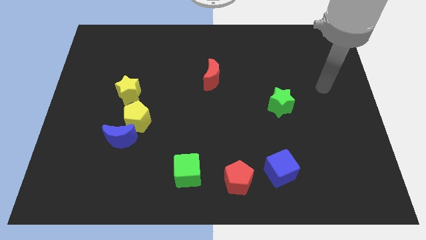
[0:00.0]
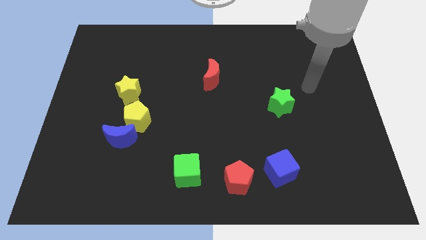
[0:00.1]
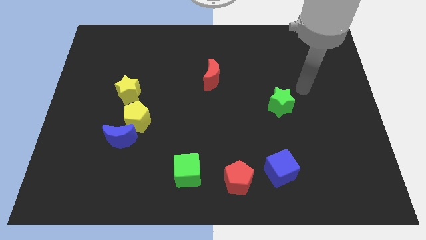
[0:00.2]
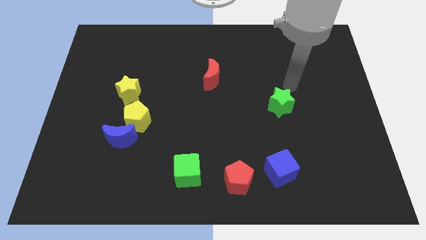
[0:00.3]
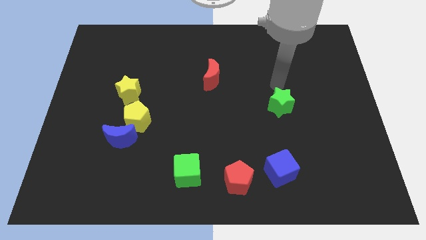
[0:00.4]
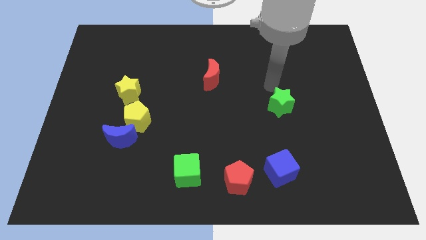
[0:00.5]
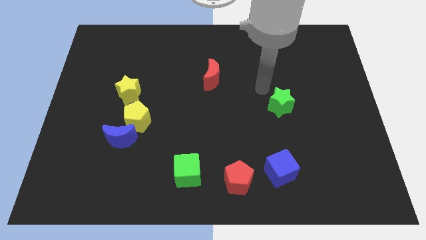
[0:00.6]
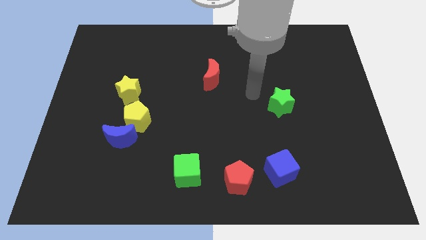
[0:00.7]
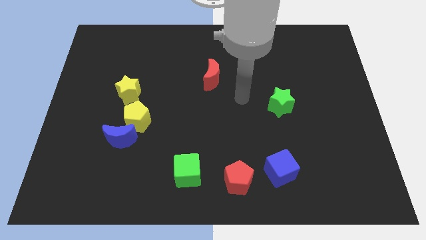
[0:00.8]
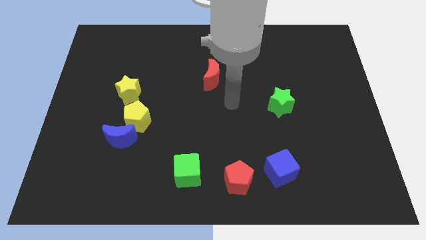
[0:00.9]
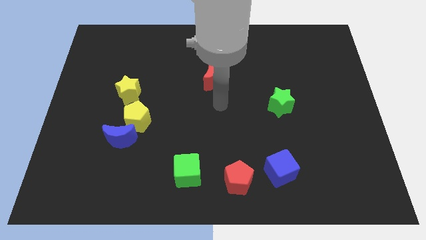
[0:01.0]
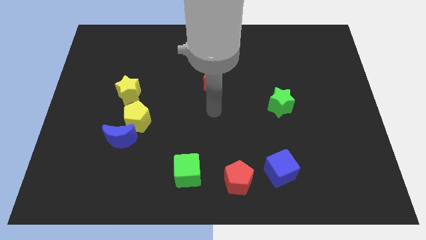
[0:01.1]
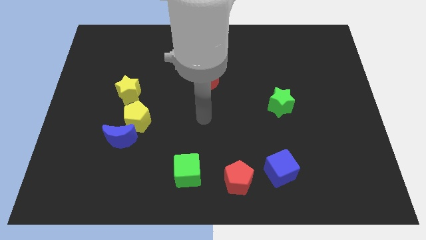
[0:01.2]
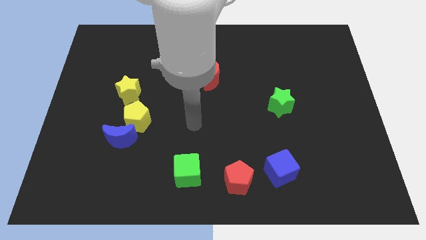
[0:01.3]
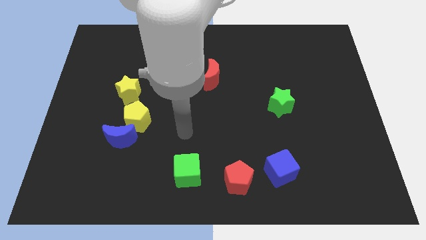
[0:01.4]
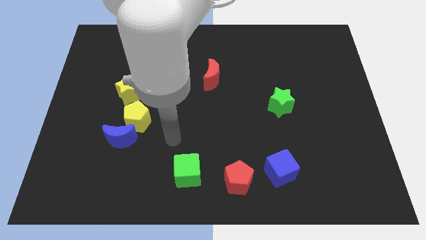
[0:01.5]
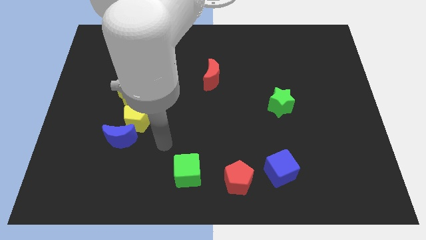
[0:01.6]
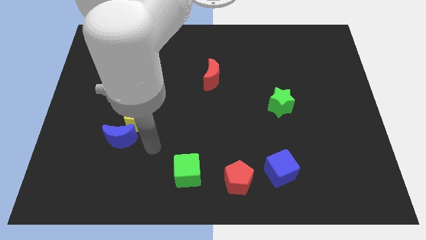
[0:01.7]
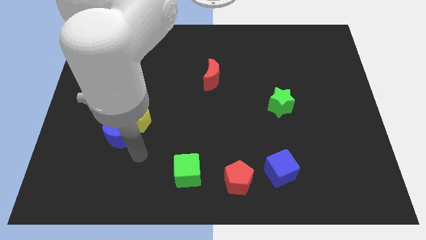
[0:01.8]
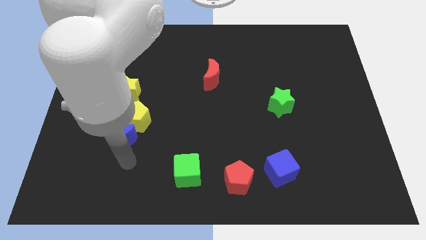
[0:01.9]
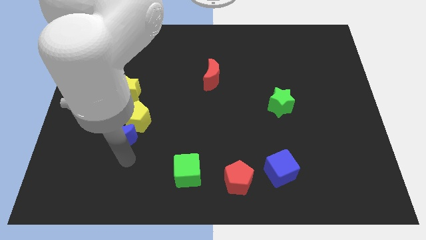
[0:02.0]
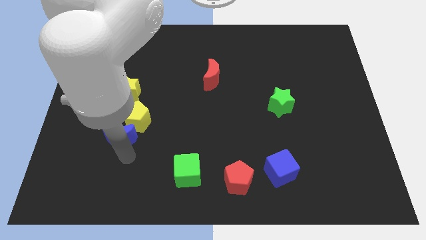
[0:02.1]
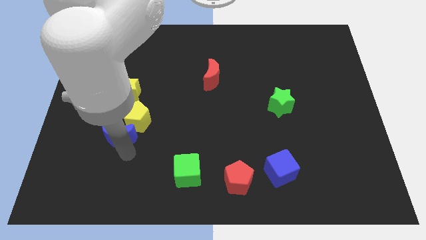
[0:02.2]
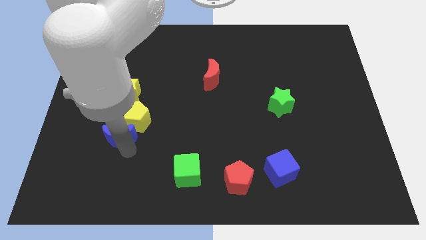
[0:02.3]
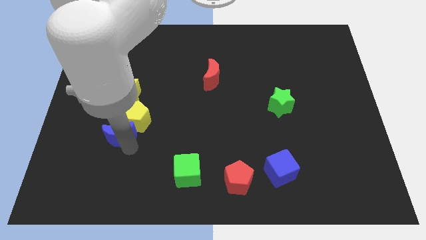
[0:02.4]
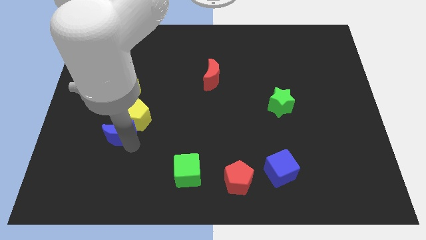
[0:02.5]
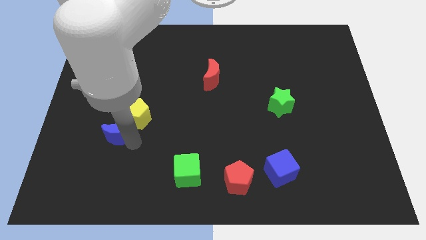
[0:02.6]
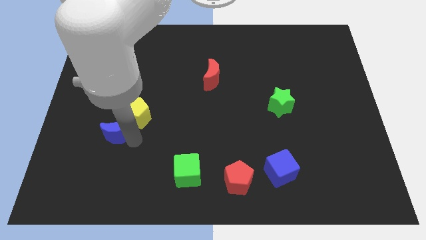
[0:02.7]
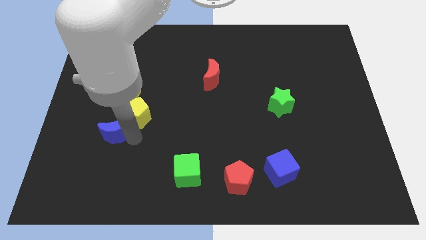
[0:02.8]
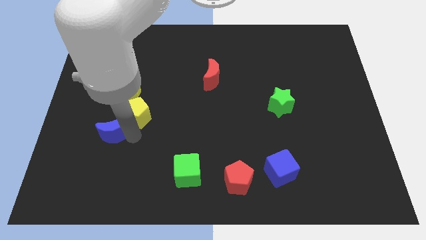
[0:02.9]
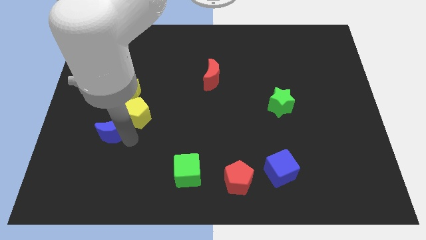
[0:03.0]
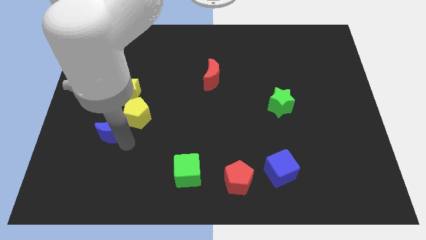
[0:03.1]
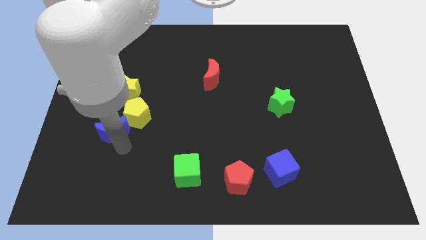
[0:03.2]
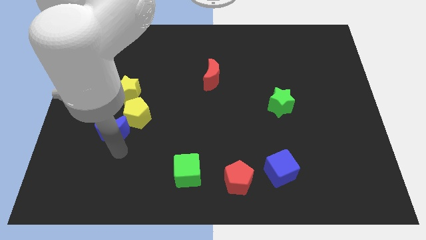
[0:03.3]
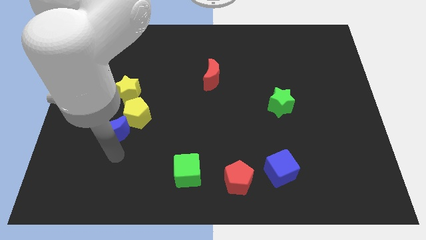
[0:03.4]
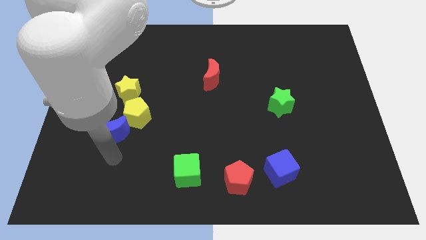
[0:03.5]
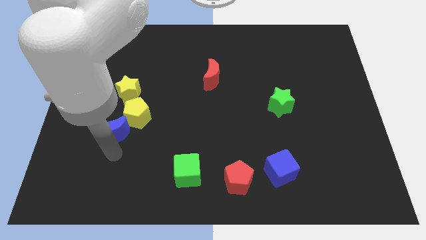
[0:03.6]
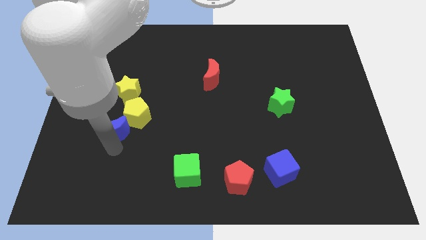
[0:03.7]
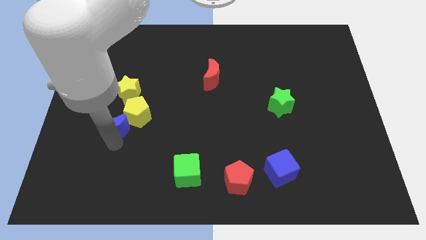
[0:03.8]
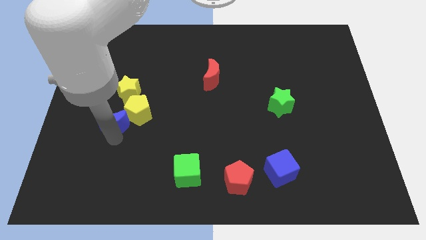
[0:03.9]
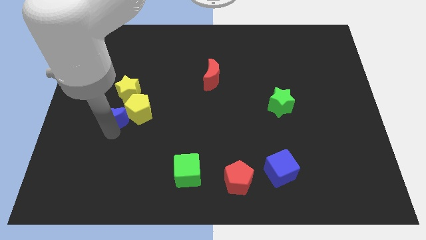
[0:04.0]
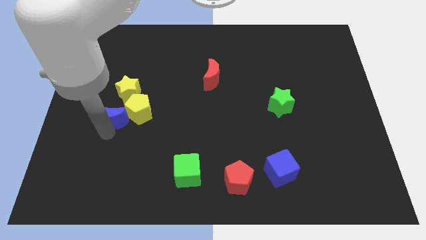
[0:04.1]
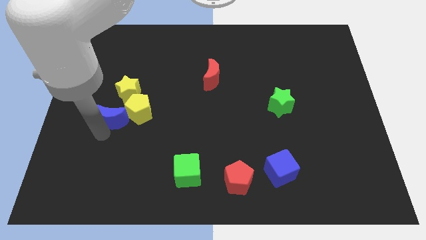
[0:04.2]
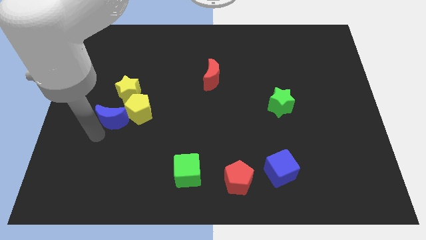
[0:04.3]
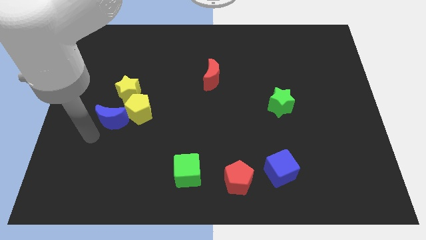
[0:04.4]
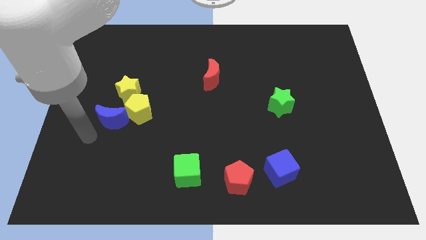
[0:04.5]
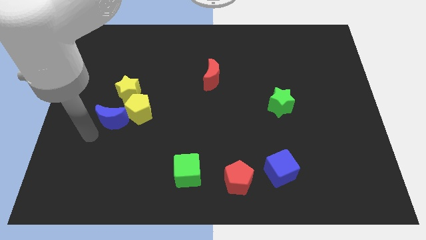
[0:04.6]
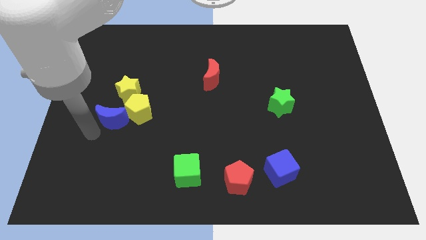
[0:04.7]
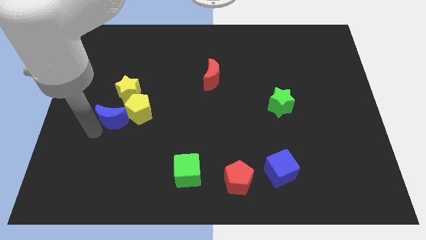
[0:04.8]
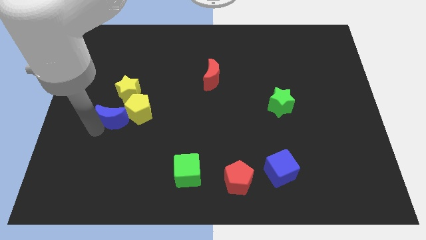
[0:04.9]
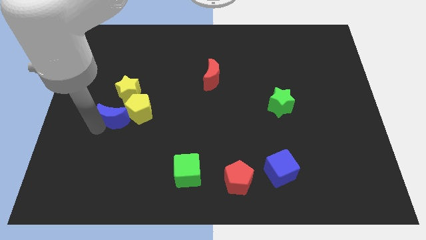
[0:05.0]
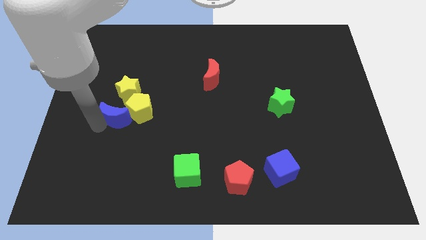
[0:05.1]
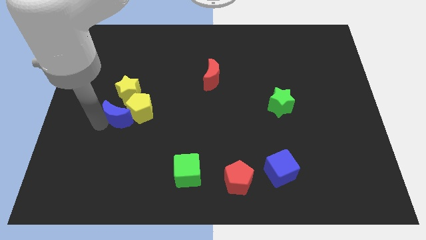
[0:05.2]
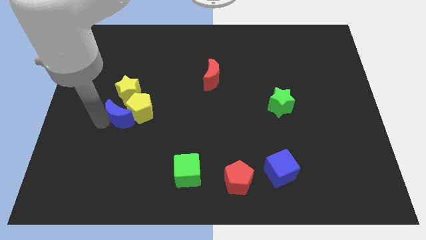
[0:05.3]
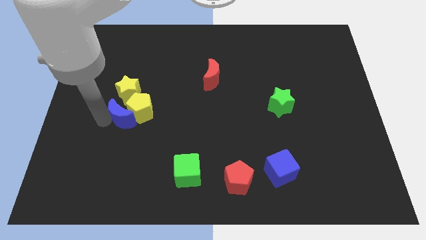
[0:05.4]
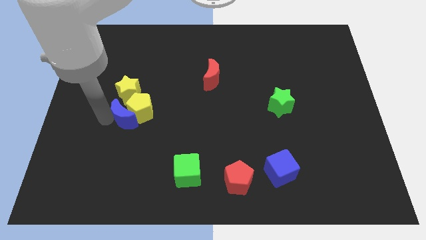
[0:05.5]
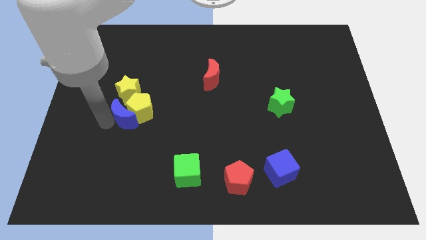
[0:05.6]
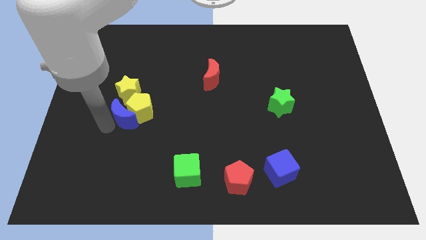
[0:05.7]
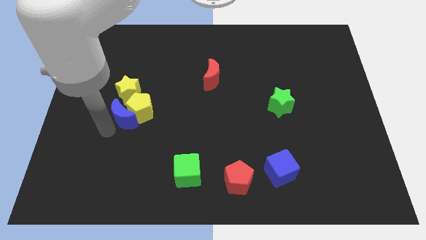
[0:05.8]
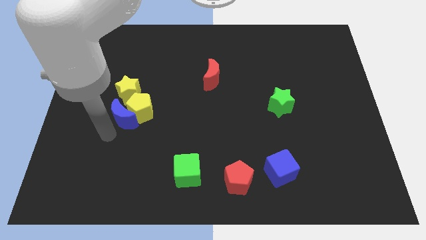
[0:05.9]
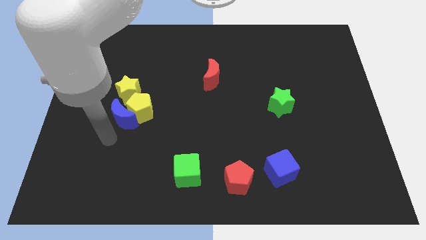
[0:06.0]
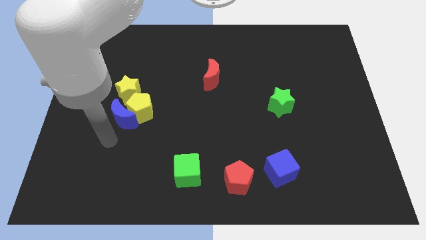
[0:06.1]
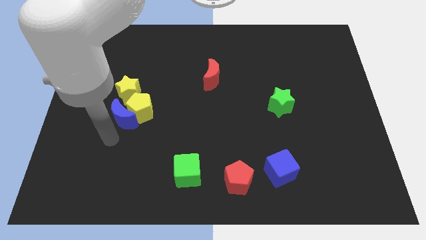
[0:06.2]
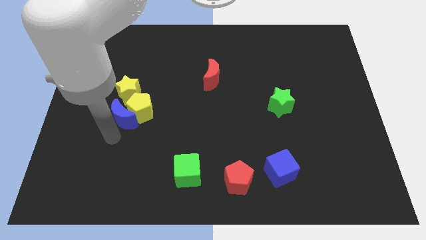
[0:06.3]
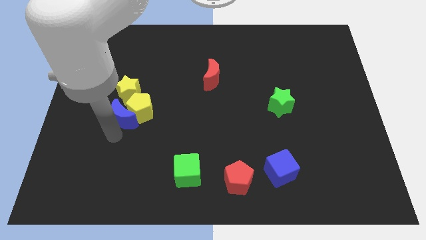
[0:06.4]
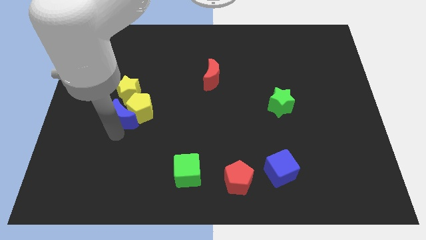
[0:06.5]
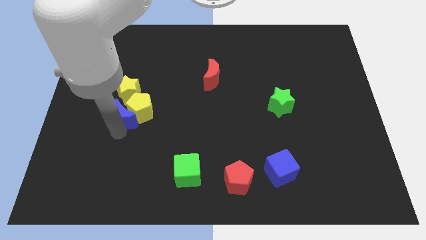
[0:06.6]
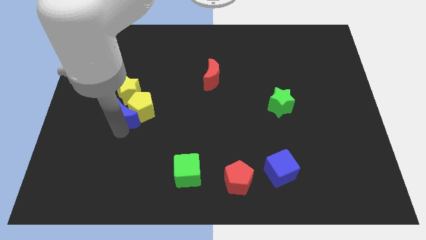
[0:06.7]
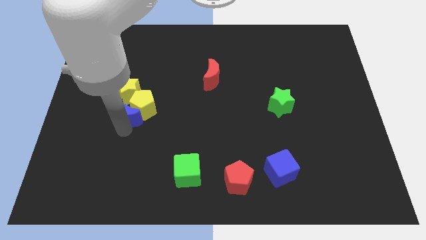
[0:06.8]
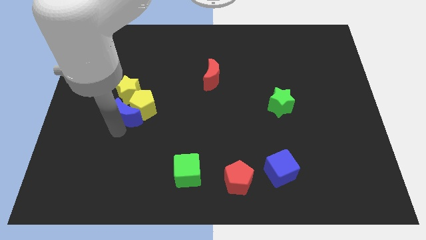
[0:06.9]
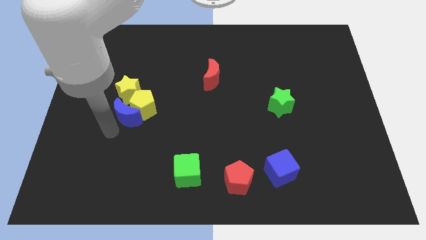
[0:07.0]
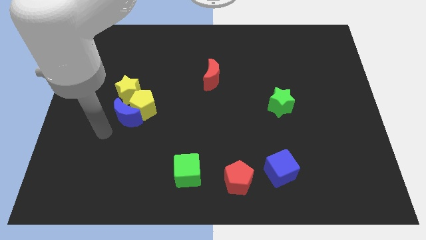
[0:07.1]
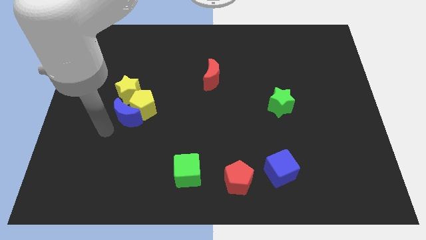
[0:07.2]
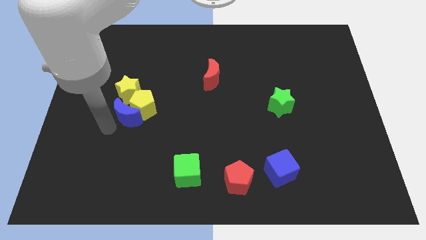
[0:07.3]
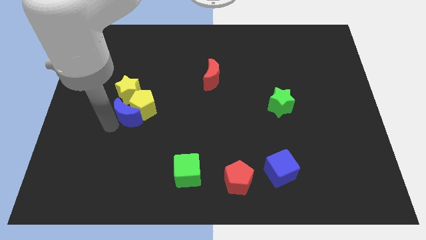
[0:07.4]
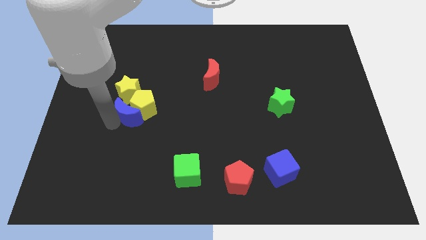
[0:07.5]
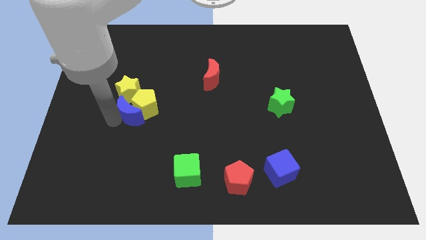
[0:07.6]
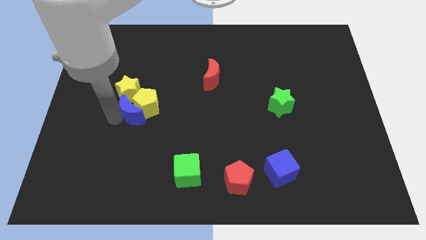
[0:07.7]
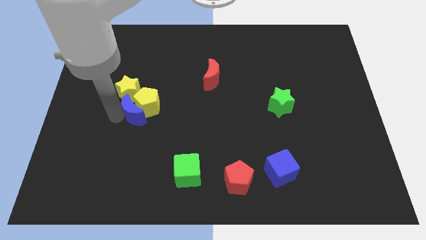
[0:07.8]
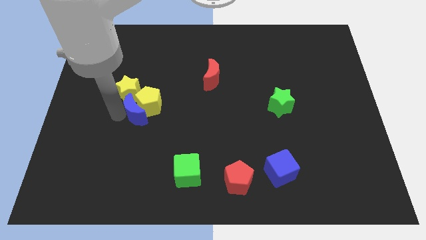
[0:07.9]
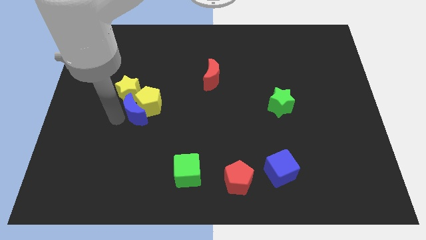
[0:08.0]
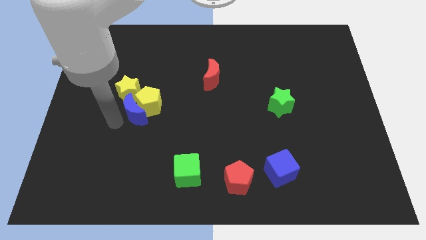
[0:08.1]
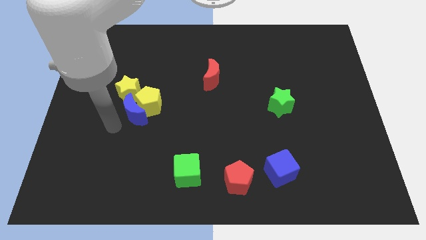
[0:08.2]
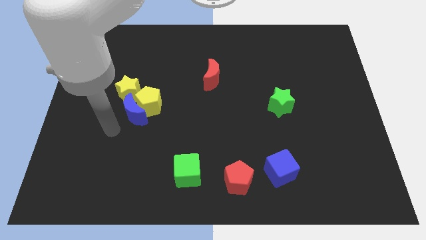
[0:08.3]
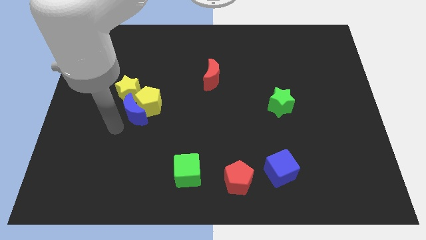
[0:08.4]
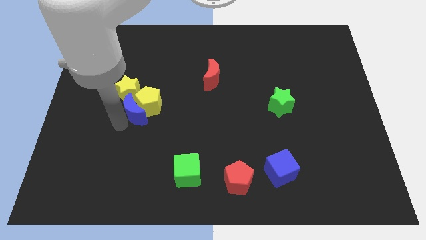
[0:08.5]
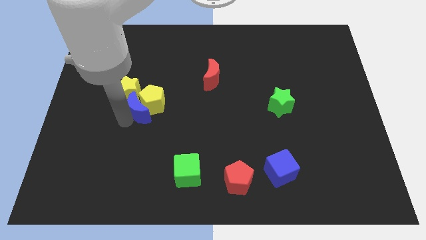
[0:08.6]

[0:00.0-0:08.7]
slightly slide the blue moon upwards and to the right
